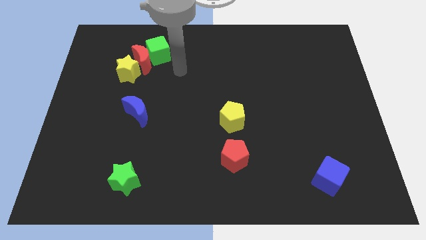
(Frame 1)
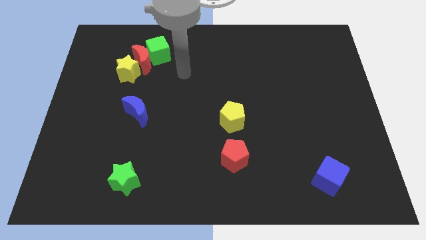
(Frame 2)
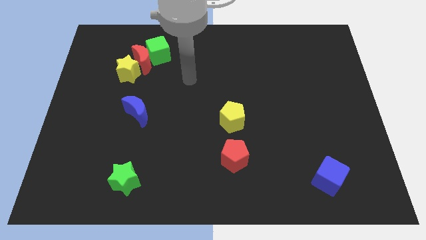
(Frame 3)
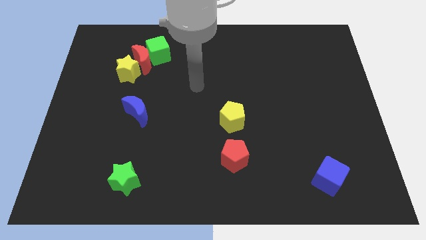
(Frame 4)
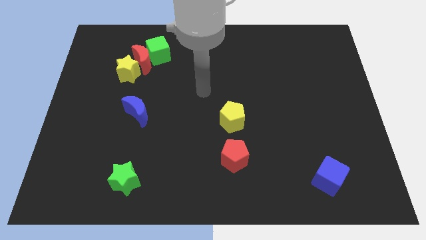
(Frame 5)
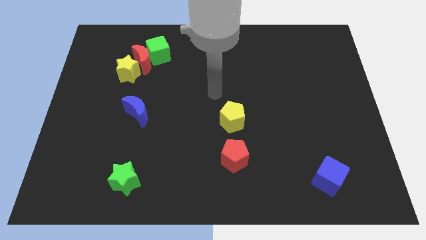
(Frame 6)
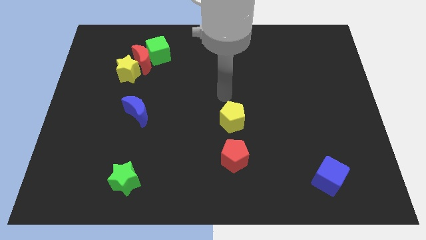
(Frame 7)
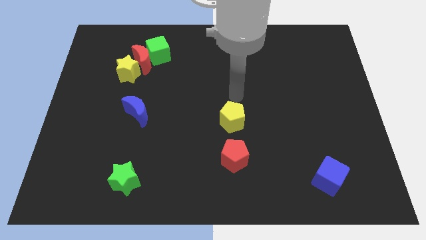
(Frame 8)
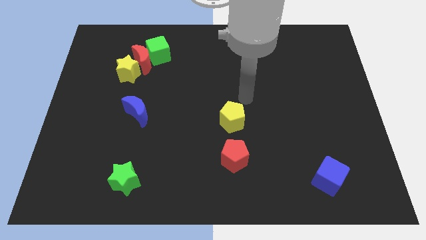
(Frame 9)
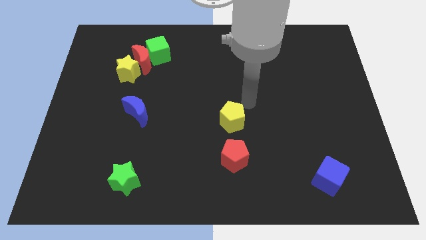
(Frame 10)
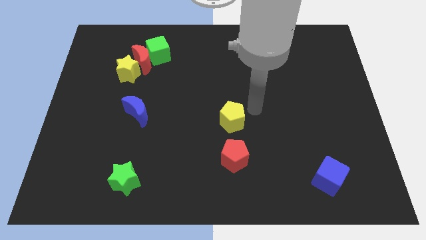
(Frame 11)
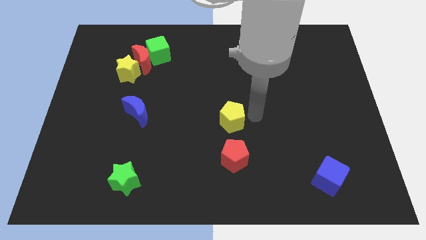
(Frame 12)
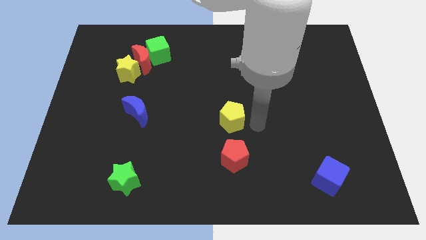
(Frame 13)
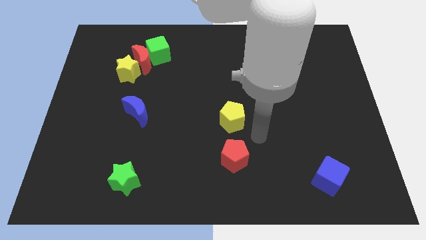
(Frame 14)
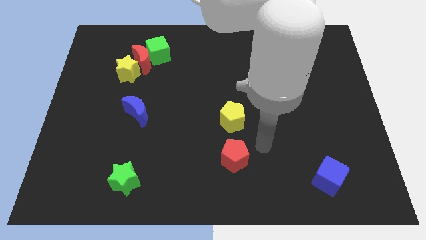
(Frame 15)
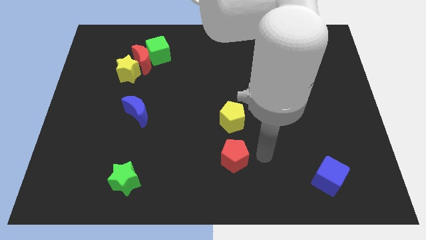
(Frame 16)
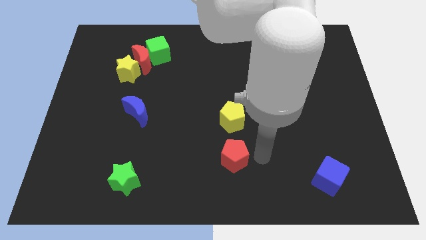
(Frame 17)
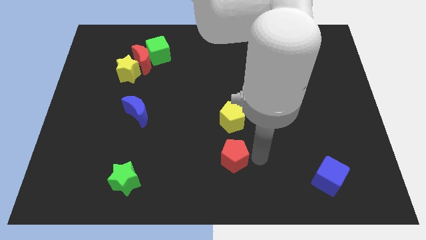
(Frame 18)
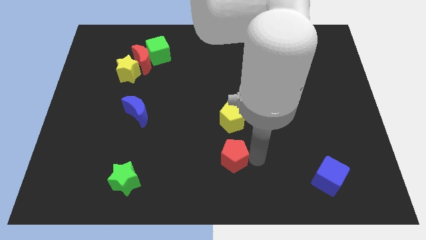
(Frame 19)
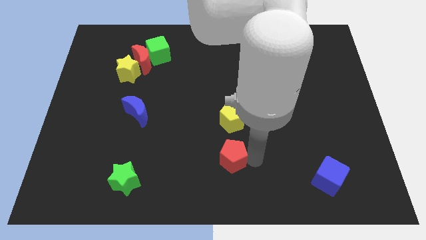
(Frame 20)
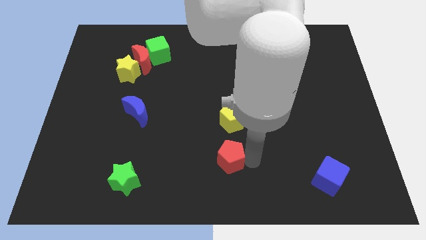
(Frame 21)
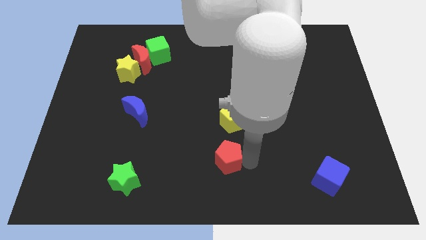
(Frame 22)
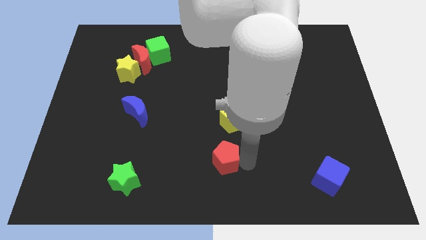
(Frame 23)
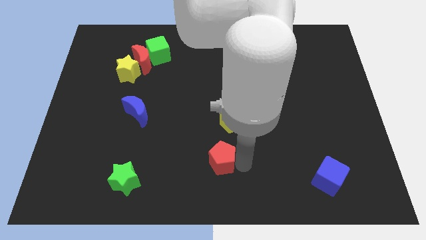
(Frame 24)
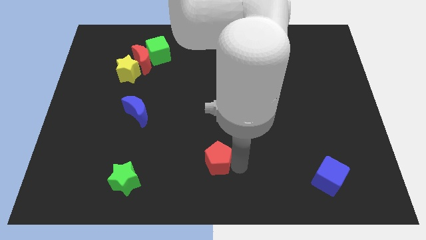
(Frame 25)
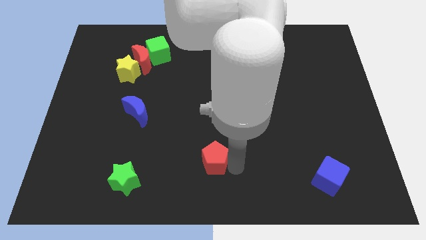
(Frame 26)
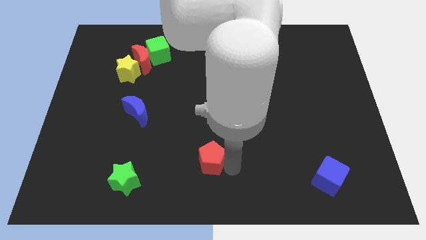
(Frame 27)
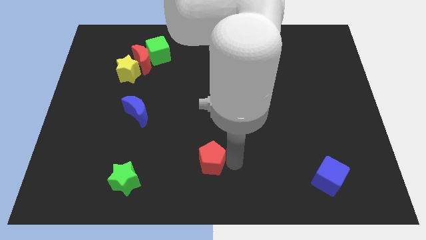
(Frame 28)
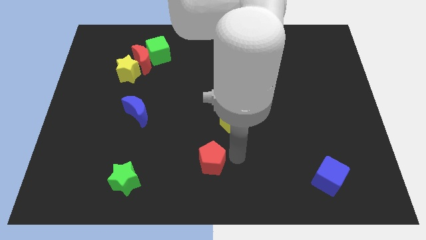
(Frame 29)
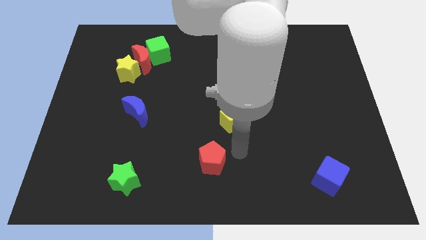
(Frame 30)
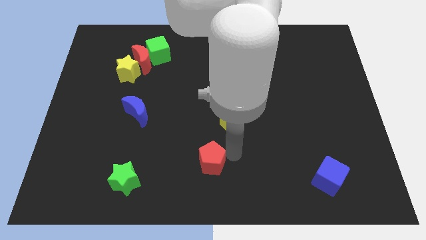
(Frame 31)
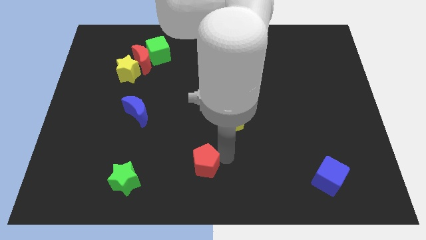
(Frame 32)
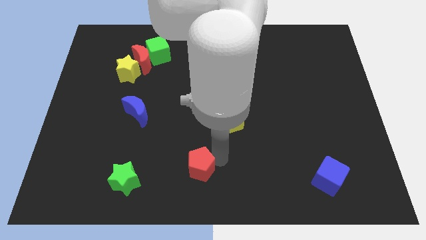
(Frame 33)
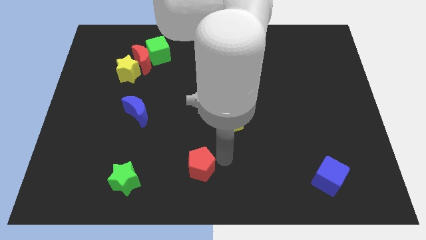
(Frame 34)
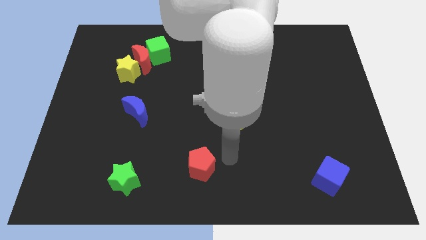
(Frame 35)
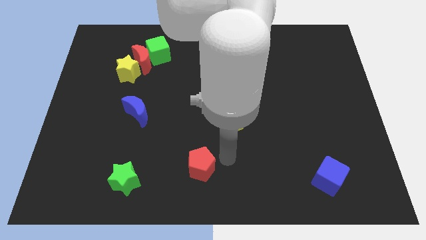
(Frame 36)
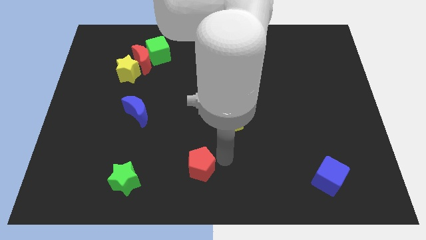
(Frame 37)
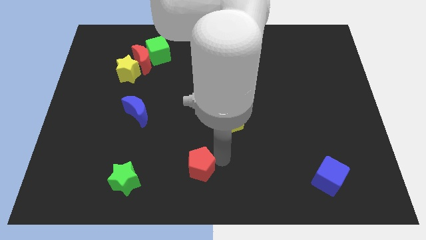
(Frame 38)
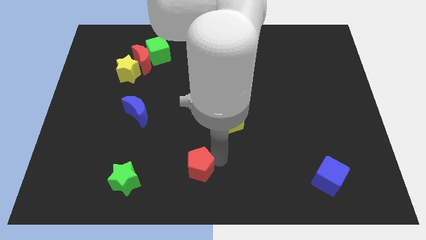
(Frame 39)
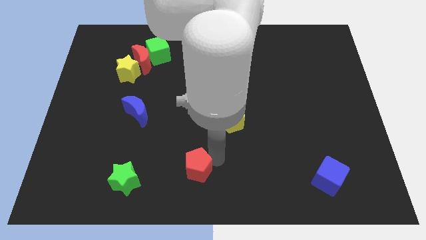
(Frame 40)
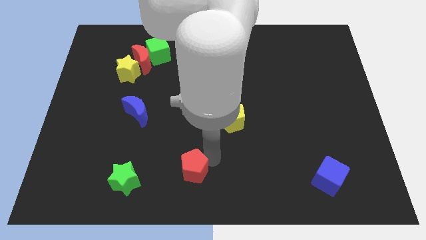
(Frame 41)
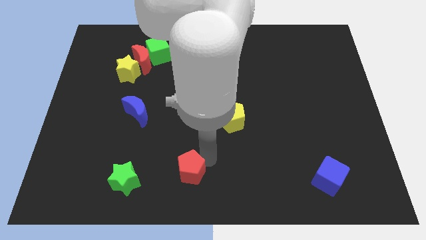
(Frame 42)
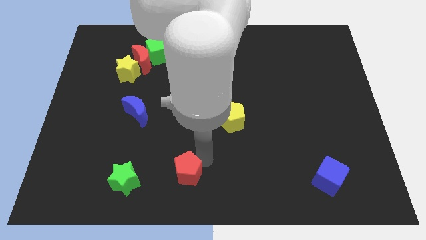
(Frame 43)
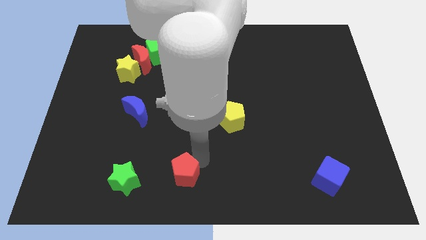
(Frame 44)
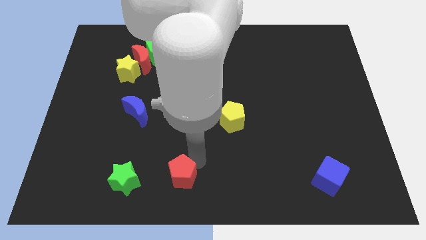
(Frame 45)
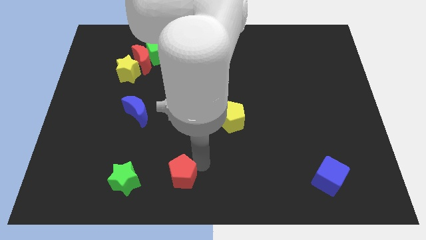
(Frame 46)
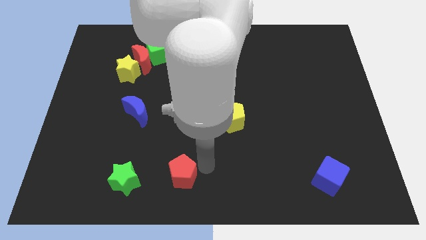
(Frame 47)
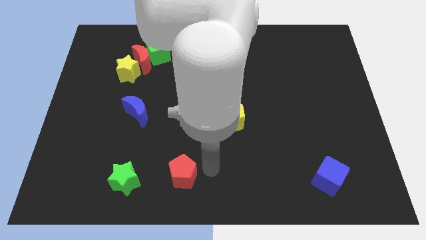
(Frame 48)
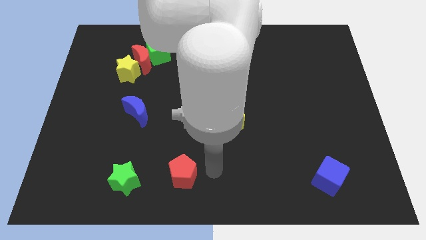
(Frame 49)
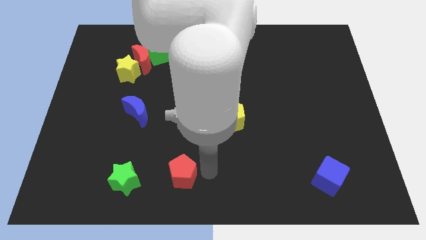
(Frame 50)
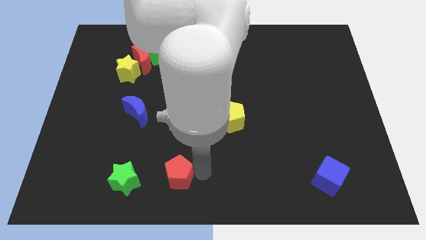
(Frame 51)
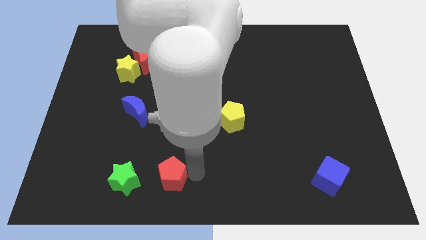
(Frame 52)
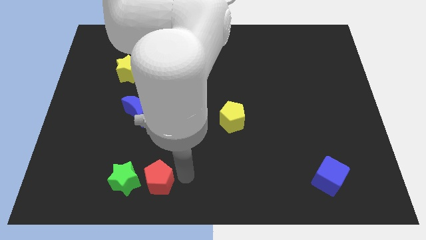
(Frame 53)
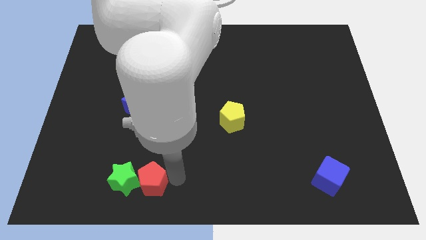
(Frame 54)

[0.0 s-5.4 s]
move the red pentagon close to the green star

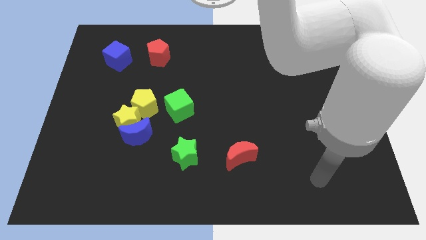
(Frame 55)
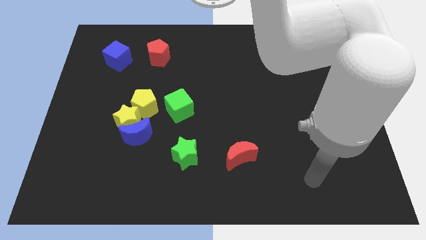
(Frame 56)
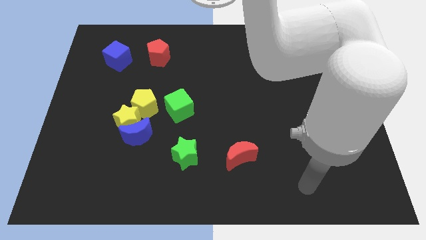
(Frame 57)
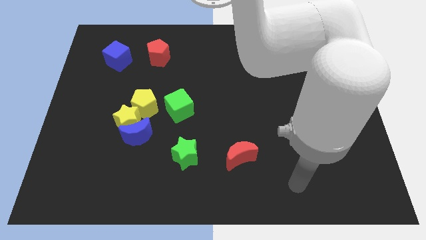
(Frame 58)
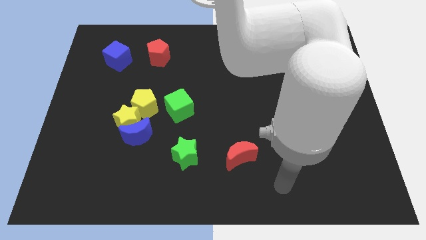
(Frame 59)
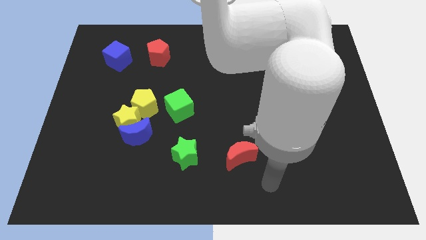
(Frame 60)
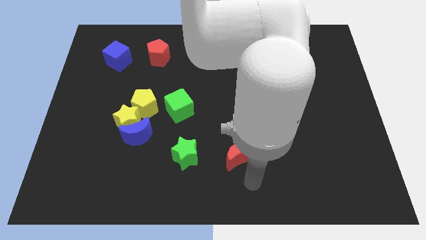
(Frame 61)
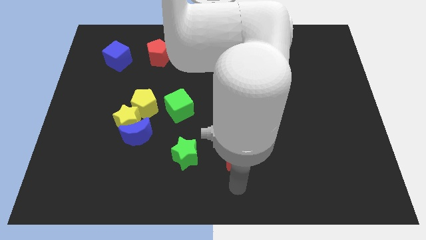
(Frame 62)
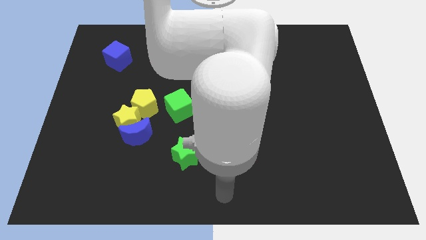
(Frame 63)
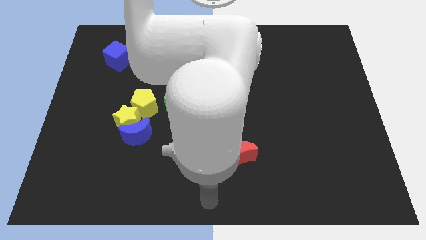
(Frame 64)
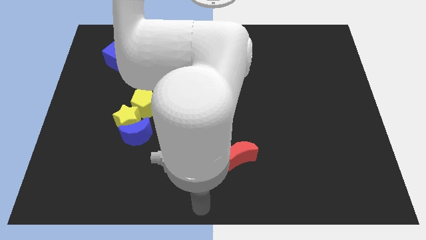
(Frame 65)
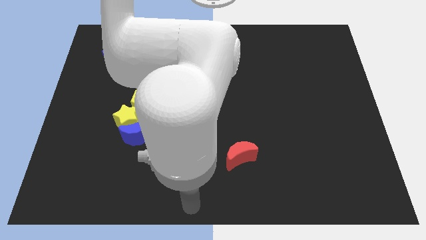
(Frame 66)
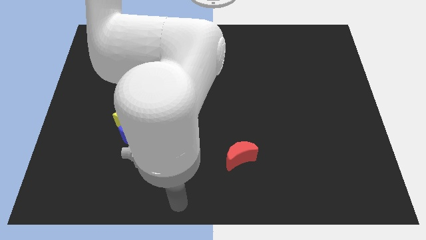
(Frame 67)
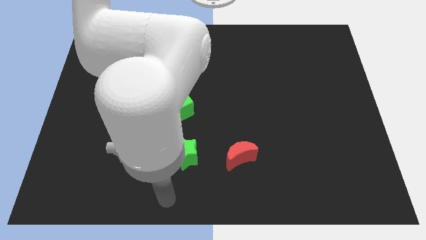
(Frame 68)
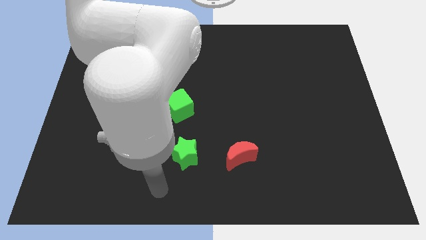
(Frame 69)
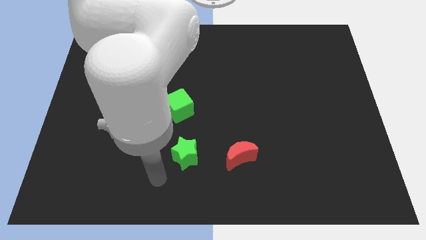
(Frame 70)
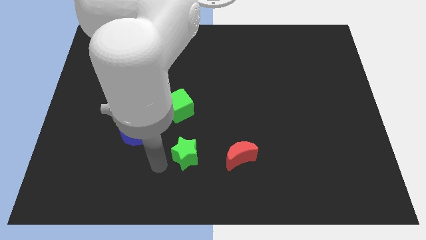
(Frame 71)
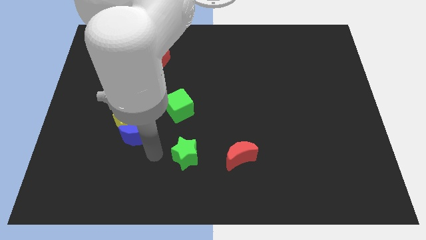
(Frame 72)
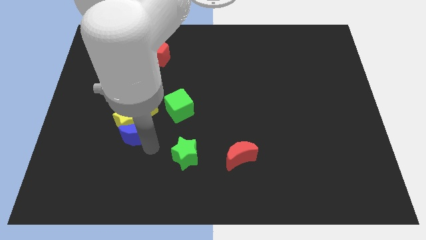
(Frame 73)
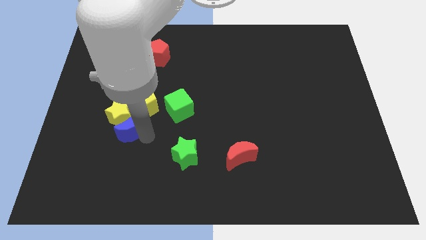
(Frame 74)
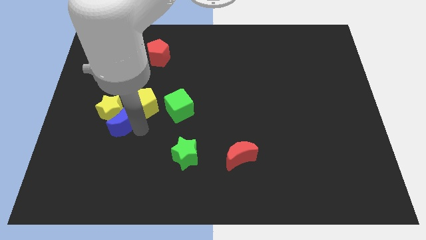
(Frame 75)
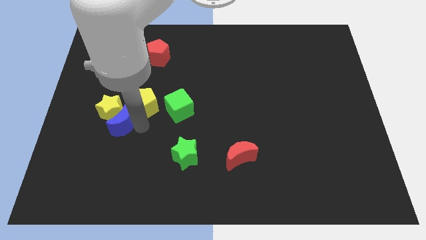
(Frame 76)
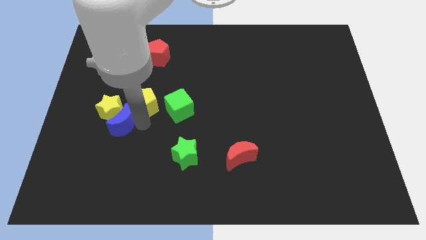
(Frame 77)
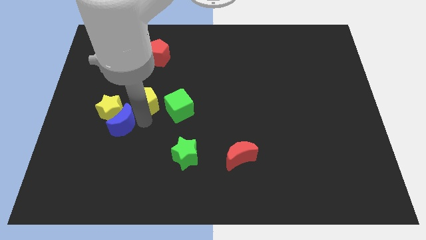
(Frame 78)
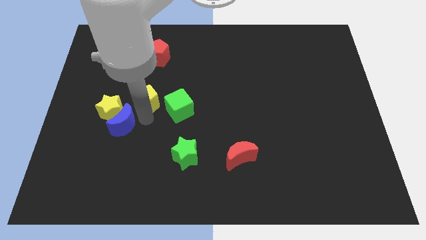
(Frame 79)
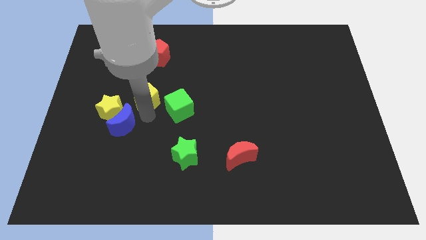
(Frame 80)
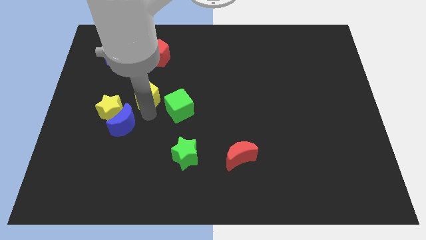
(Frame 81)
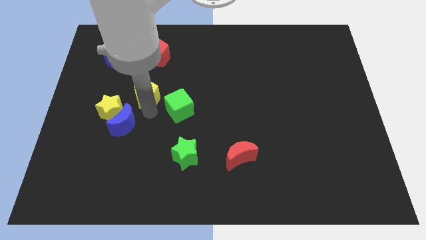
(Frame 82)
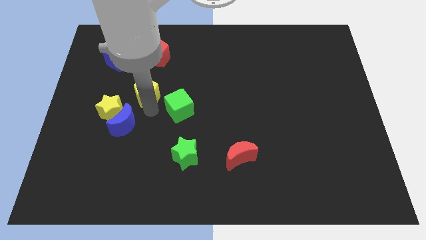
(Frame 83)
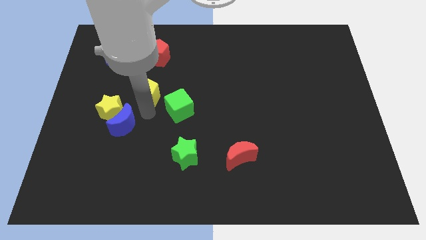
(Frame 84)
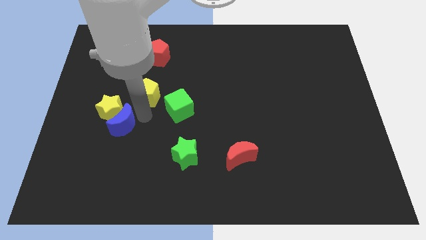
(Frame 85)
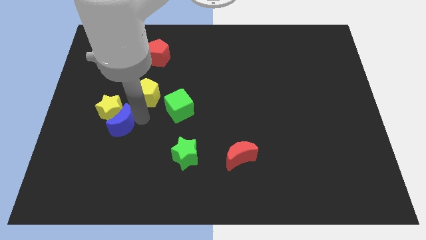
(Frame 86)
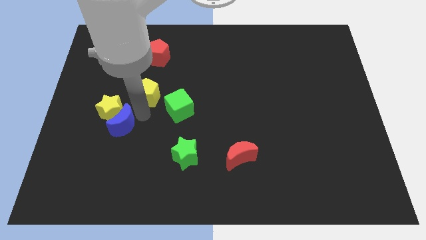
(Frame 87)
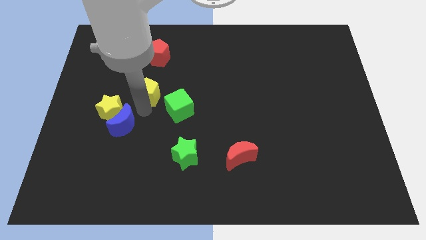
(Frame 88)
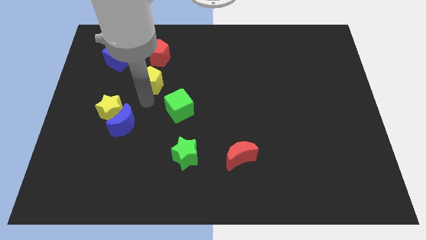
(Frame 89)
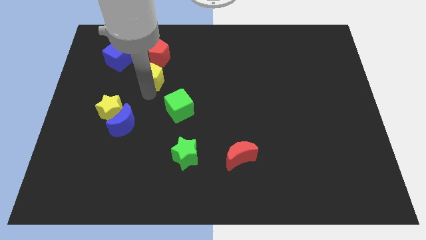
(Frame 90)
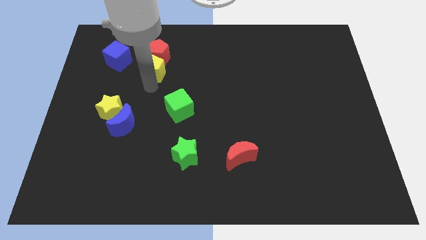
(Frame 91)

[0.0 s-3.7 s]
push the yellow pentagon to the red pentagon
